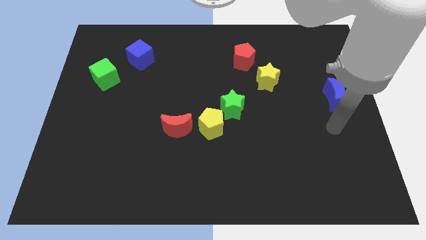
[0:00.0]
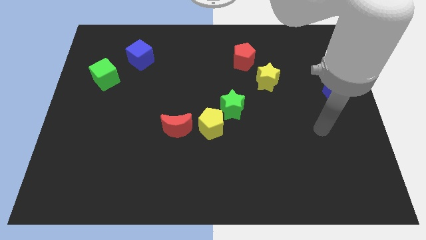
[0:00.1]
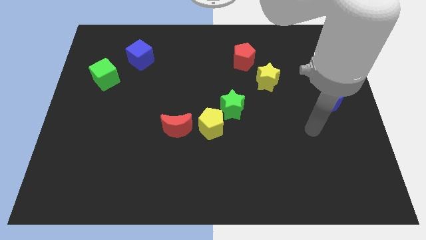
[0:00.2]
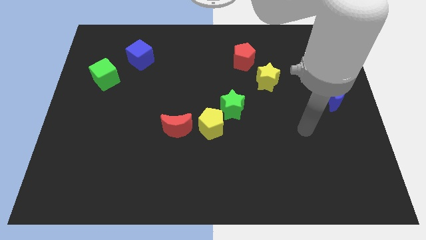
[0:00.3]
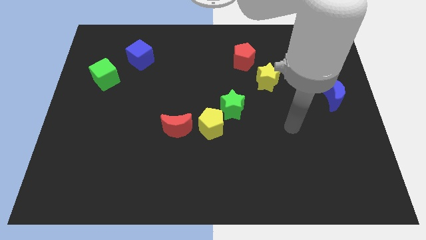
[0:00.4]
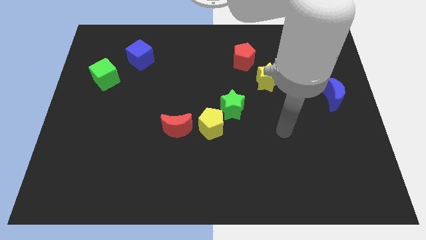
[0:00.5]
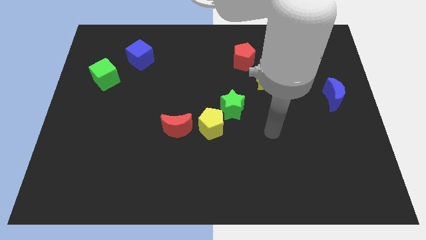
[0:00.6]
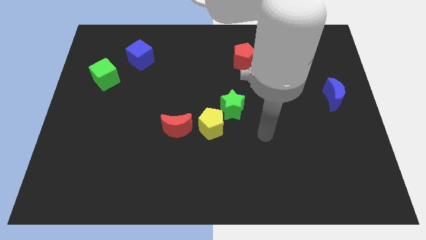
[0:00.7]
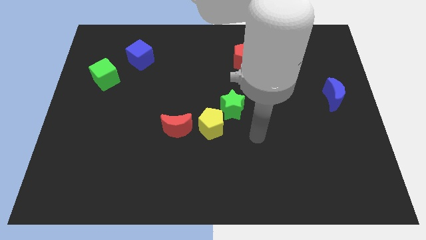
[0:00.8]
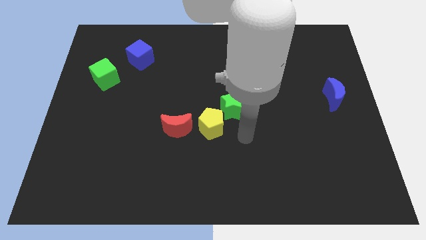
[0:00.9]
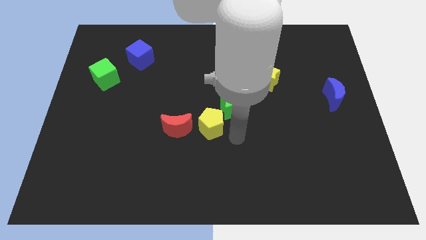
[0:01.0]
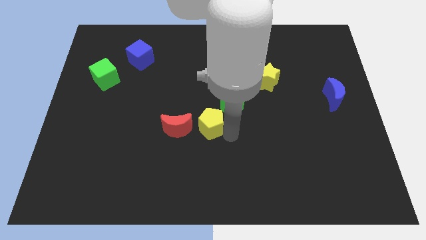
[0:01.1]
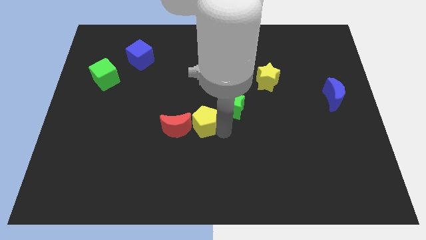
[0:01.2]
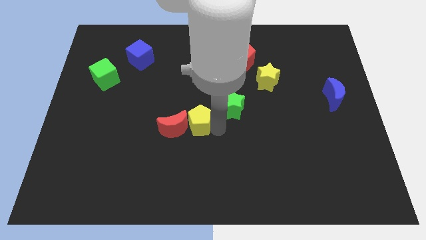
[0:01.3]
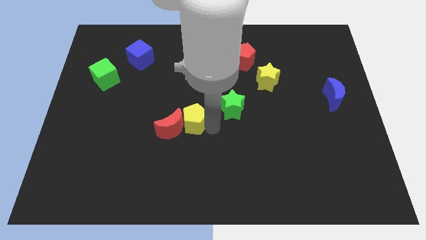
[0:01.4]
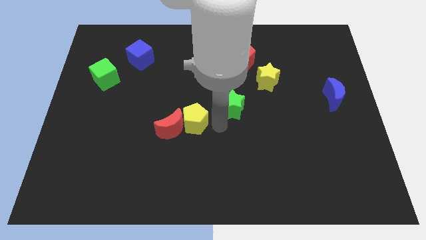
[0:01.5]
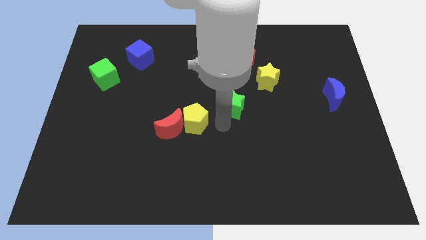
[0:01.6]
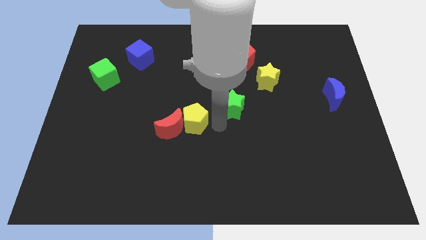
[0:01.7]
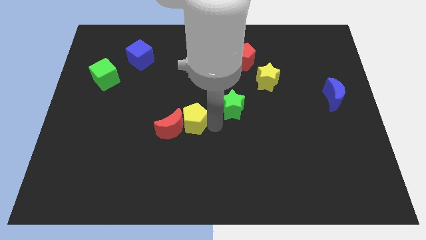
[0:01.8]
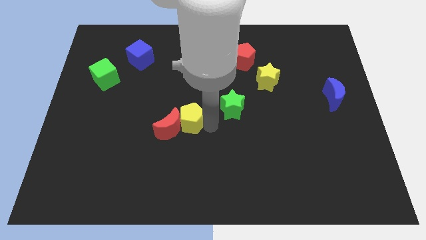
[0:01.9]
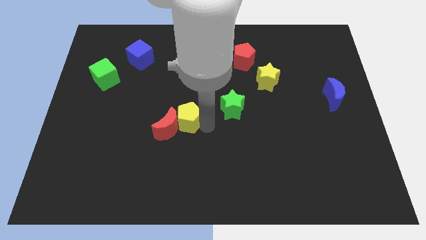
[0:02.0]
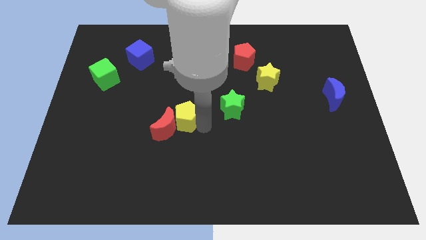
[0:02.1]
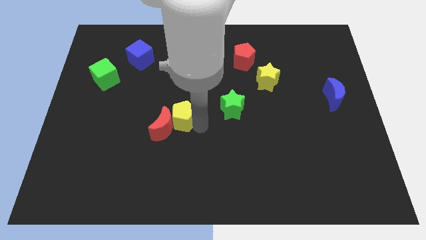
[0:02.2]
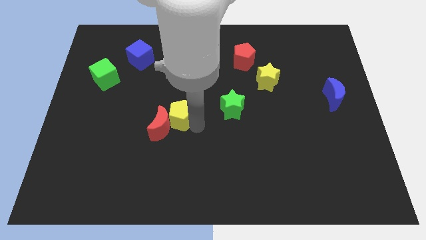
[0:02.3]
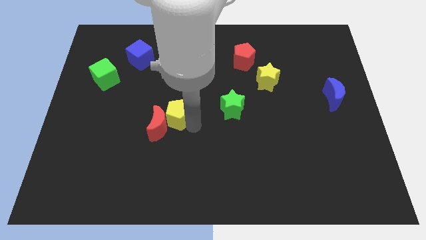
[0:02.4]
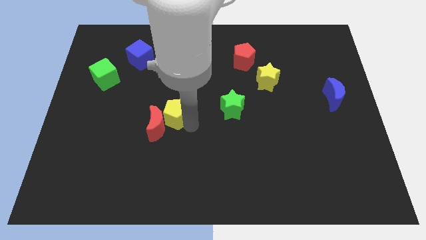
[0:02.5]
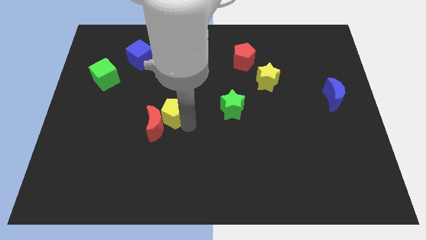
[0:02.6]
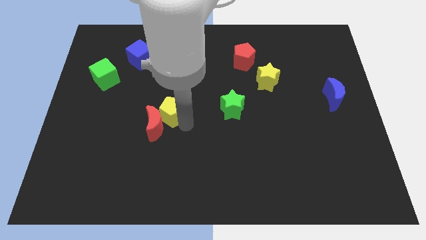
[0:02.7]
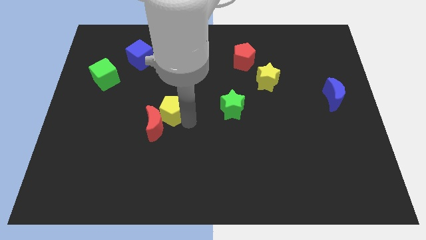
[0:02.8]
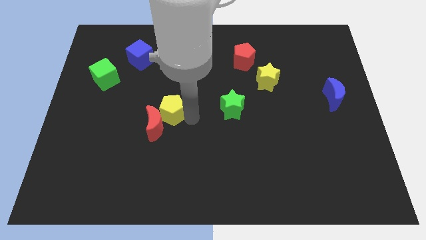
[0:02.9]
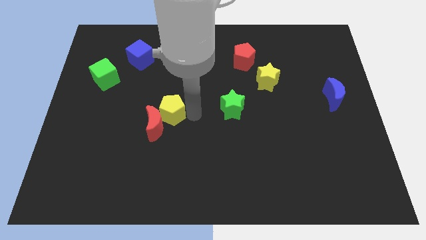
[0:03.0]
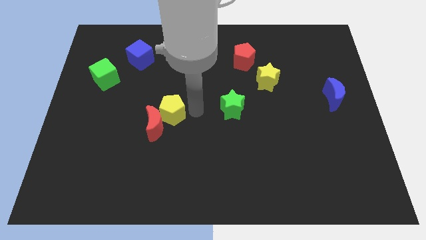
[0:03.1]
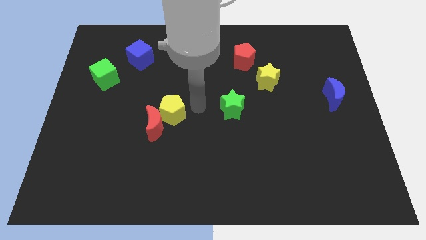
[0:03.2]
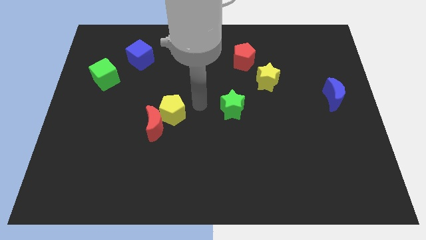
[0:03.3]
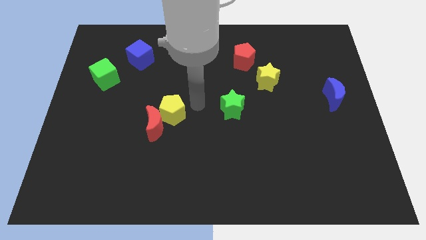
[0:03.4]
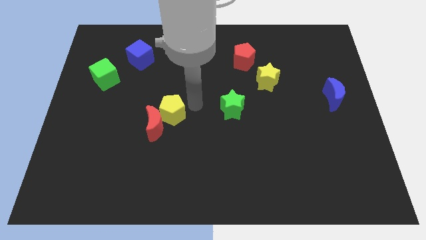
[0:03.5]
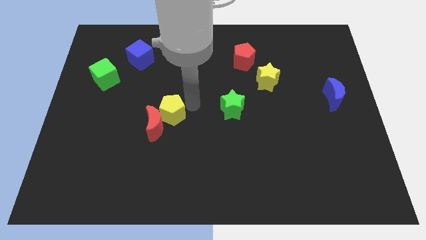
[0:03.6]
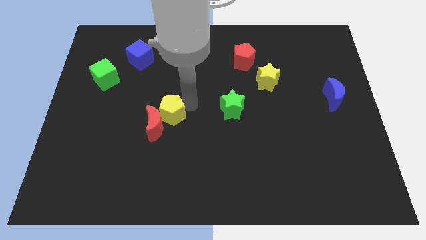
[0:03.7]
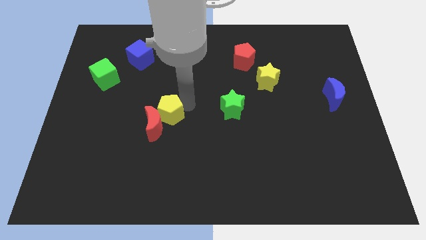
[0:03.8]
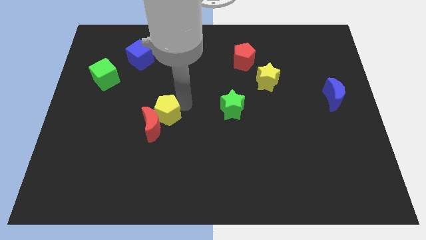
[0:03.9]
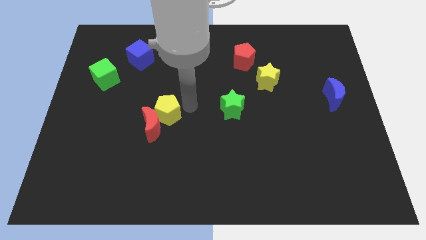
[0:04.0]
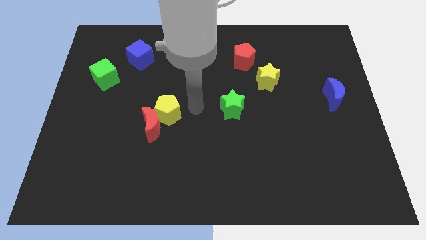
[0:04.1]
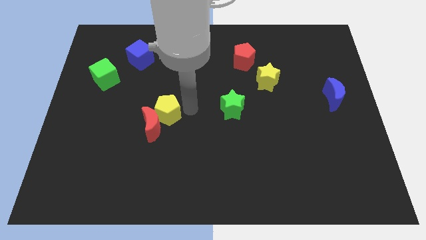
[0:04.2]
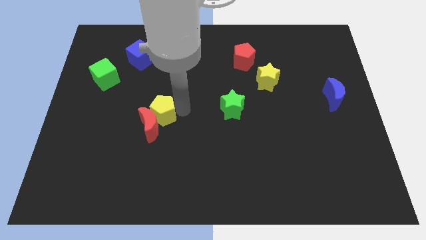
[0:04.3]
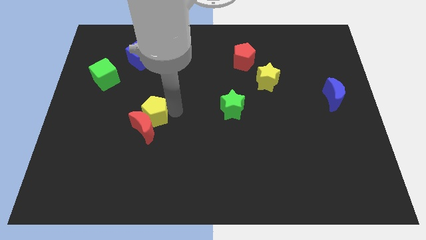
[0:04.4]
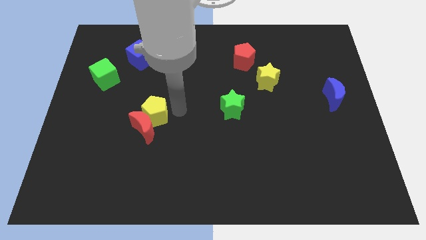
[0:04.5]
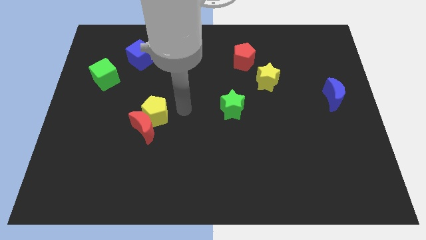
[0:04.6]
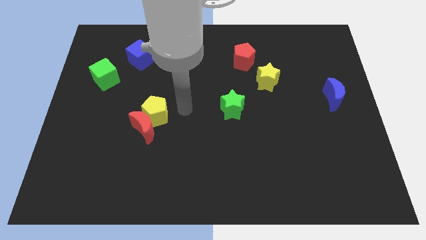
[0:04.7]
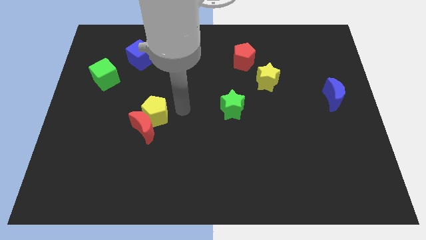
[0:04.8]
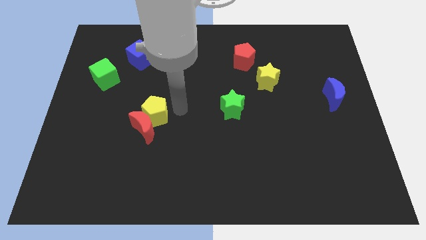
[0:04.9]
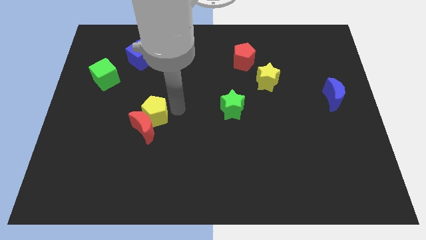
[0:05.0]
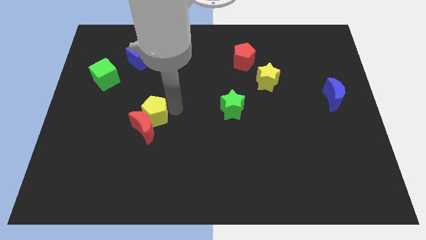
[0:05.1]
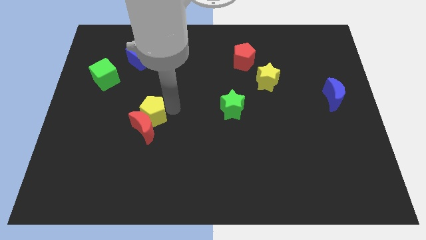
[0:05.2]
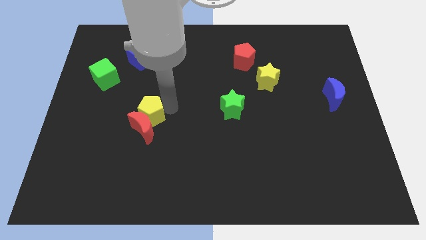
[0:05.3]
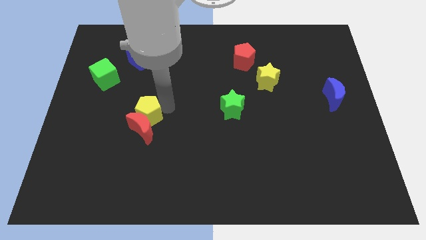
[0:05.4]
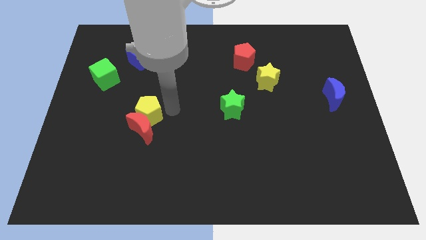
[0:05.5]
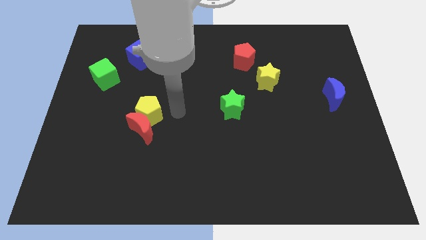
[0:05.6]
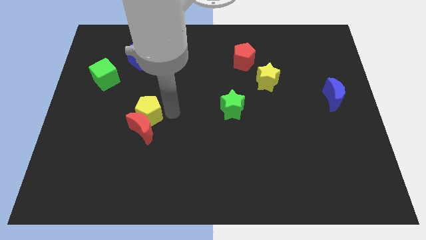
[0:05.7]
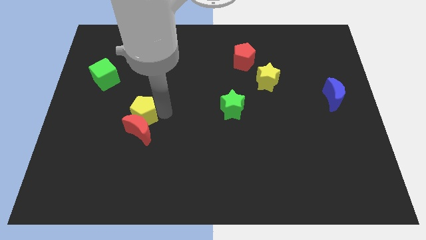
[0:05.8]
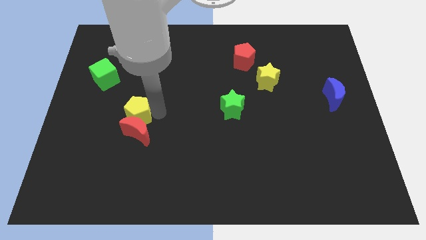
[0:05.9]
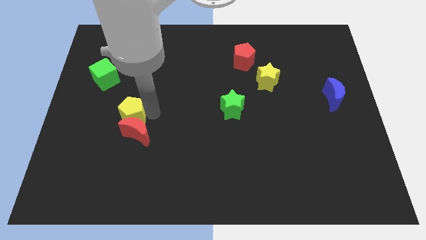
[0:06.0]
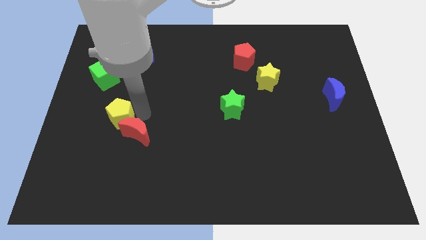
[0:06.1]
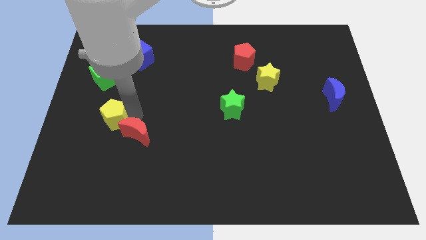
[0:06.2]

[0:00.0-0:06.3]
put the yellow pentagon to the bottom side of the green cube

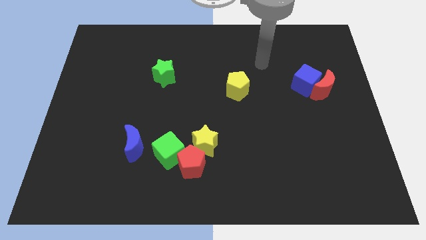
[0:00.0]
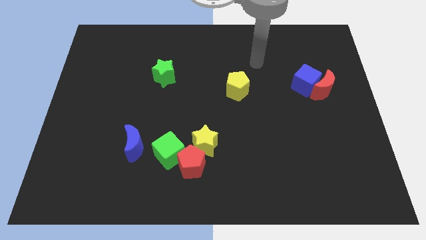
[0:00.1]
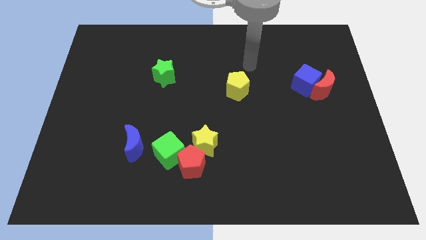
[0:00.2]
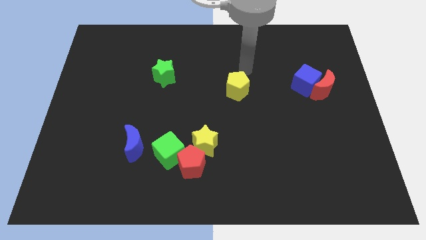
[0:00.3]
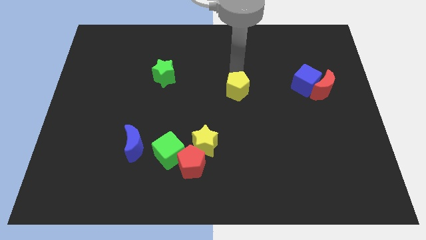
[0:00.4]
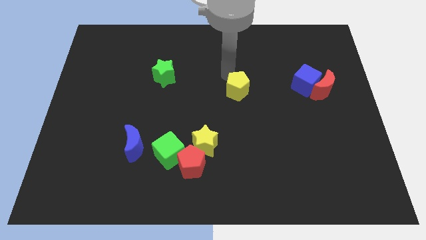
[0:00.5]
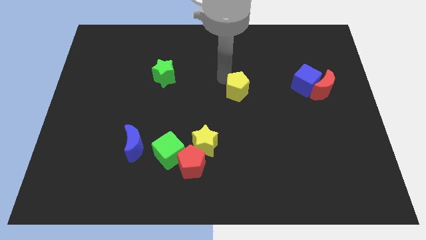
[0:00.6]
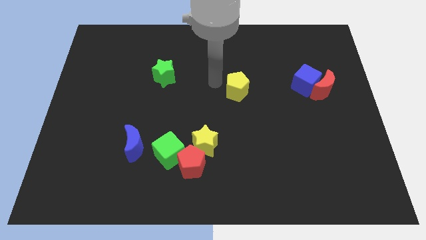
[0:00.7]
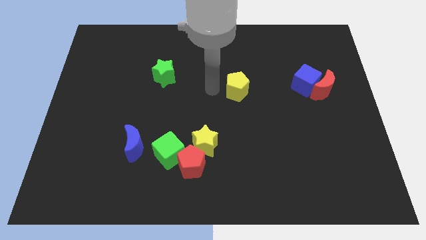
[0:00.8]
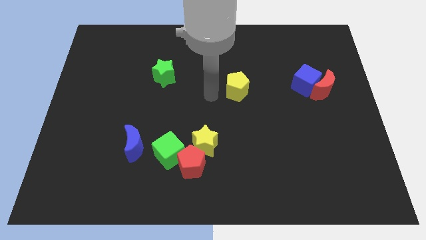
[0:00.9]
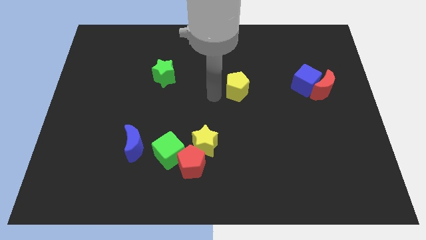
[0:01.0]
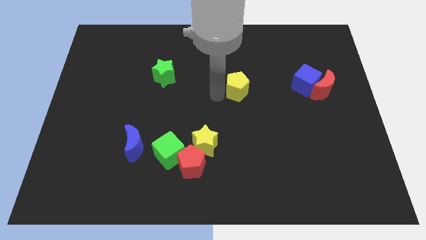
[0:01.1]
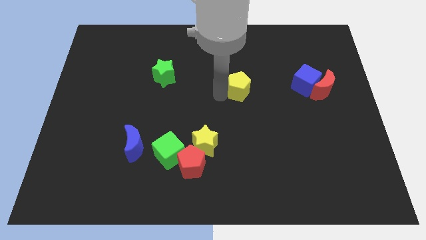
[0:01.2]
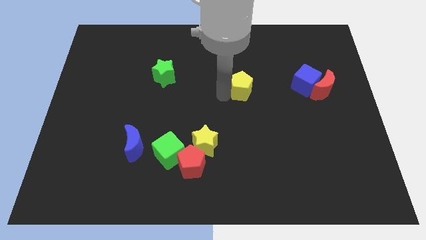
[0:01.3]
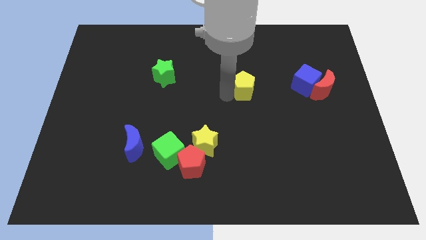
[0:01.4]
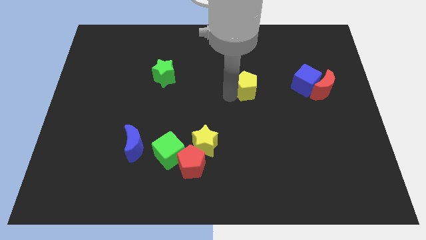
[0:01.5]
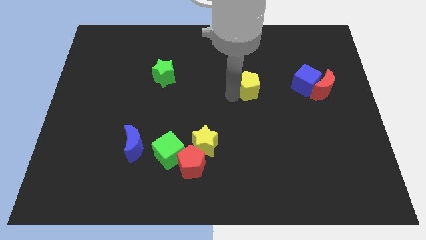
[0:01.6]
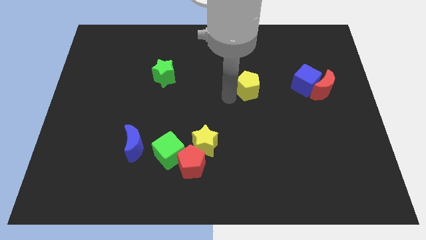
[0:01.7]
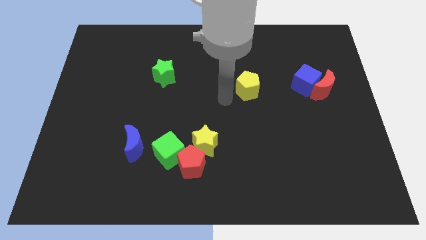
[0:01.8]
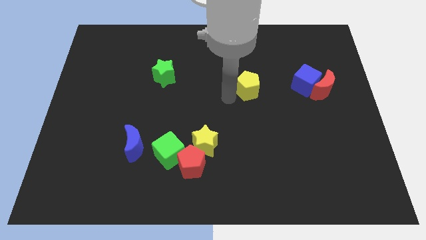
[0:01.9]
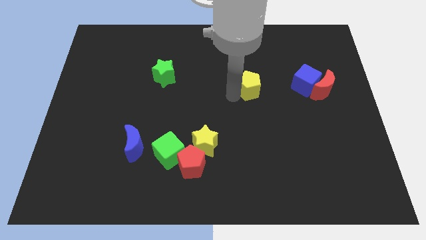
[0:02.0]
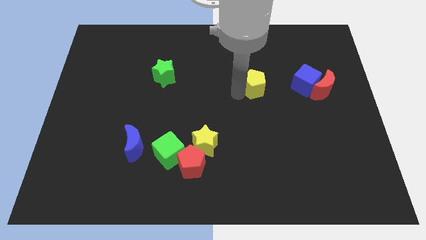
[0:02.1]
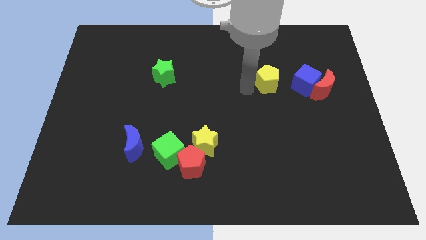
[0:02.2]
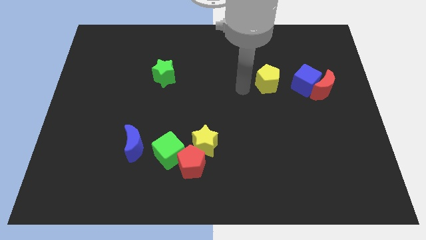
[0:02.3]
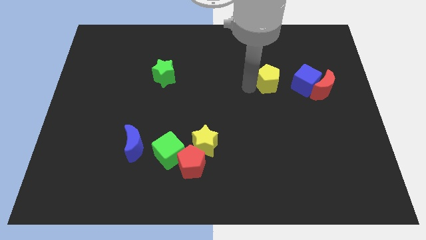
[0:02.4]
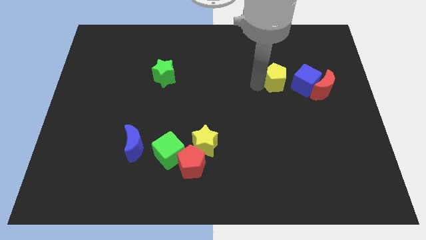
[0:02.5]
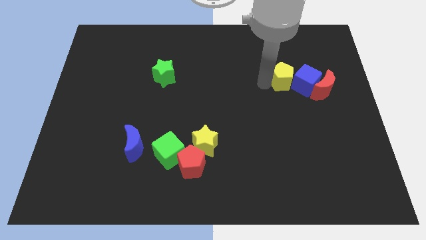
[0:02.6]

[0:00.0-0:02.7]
push the yellow pentagon diagonally up and to the left of the red moon
